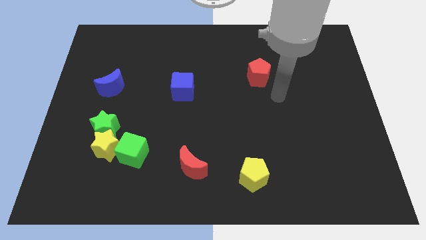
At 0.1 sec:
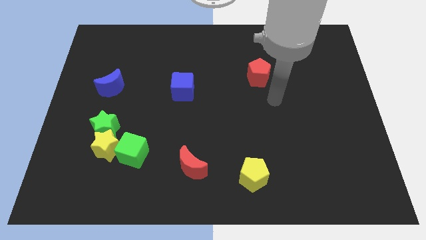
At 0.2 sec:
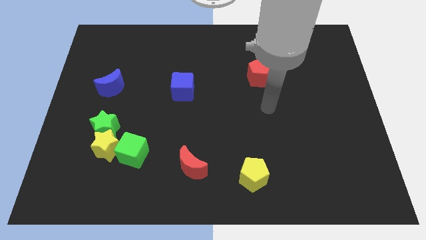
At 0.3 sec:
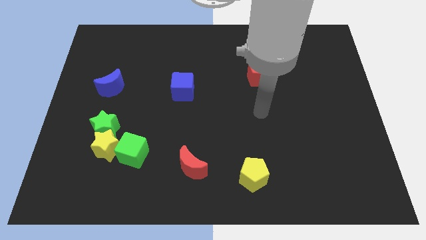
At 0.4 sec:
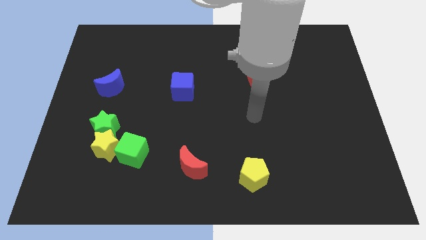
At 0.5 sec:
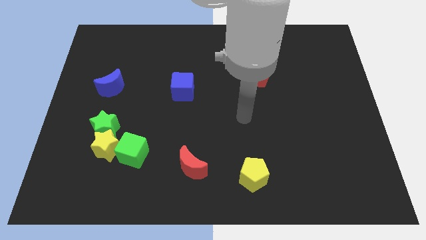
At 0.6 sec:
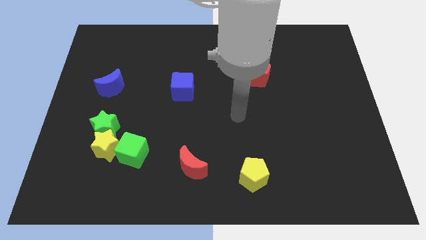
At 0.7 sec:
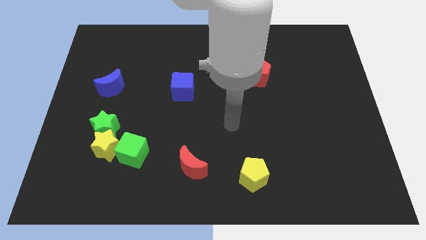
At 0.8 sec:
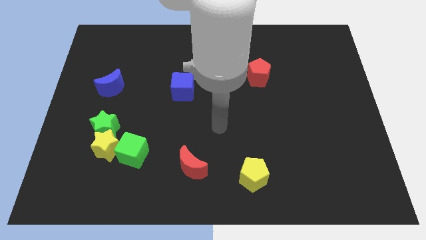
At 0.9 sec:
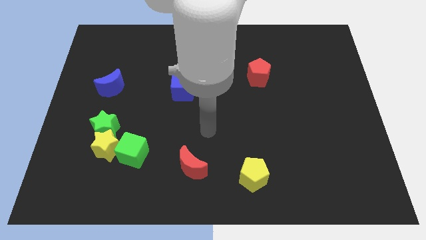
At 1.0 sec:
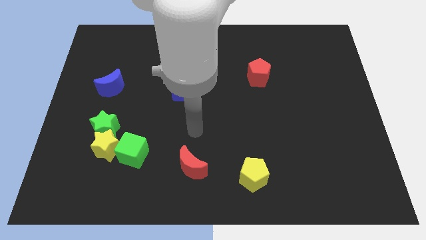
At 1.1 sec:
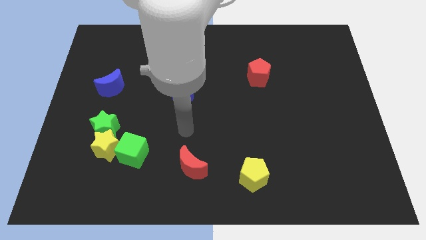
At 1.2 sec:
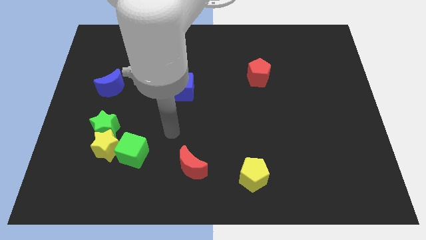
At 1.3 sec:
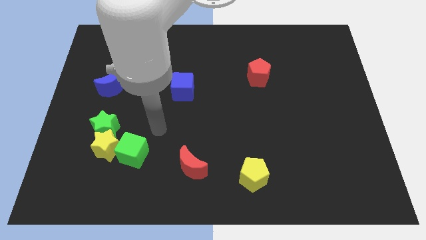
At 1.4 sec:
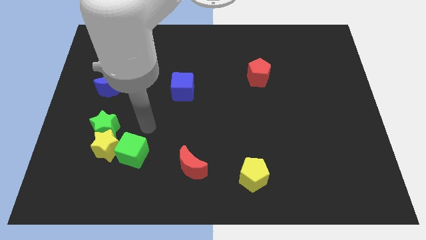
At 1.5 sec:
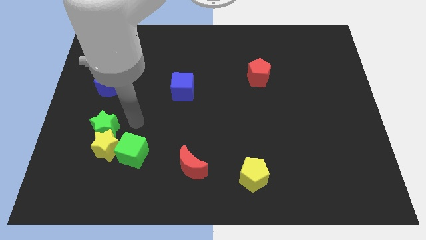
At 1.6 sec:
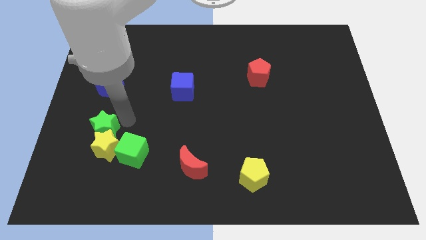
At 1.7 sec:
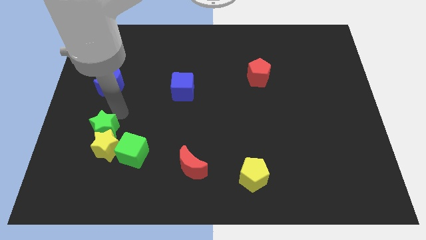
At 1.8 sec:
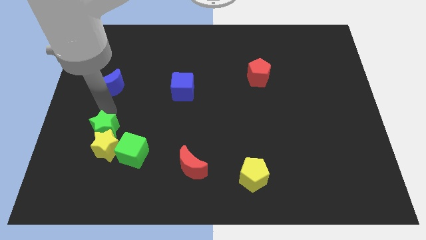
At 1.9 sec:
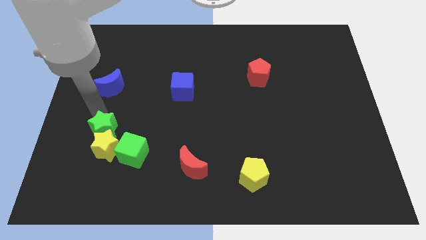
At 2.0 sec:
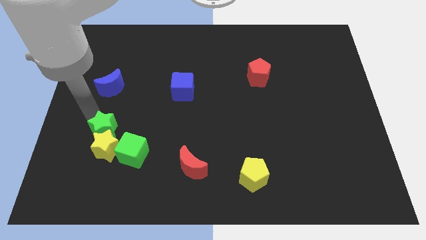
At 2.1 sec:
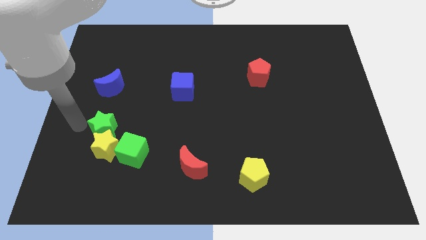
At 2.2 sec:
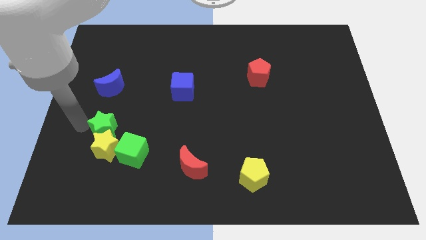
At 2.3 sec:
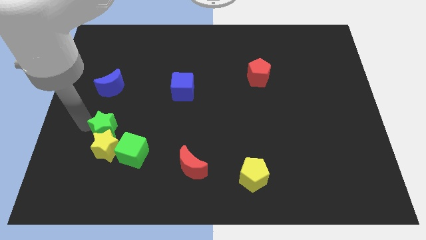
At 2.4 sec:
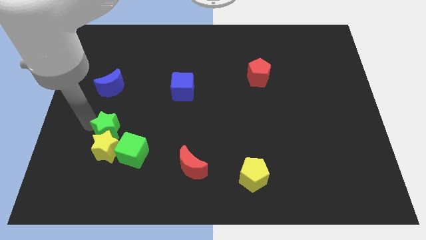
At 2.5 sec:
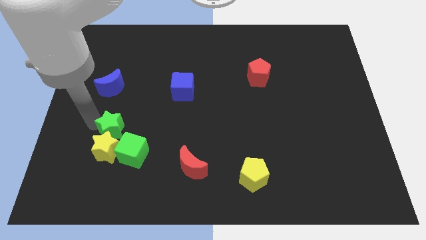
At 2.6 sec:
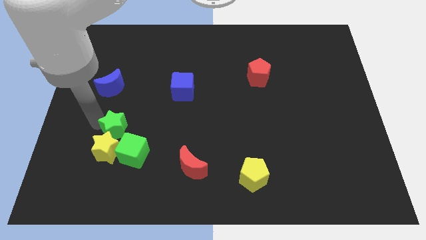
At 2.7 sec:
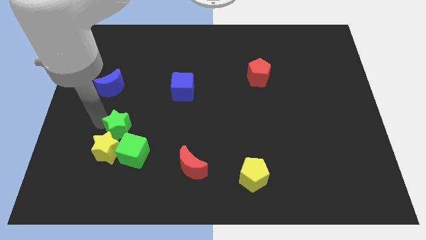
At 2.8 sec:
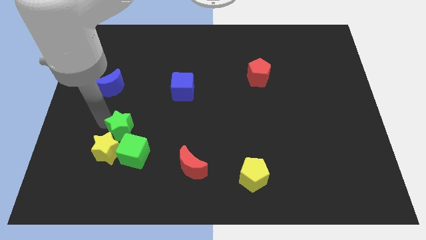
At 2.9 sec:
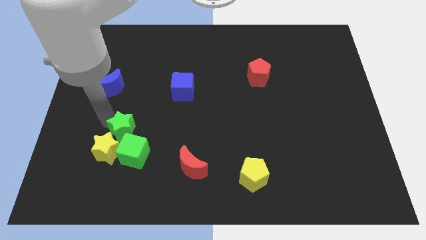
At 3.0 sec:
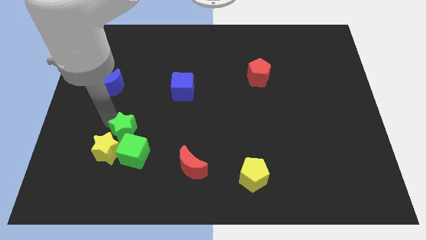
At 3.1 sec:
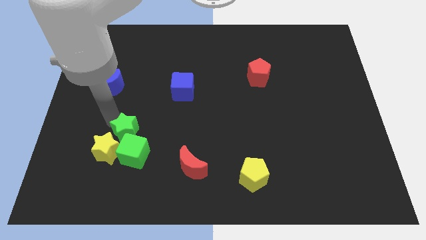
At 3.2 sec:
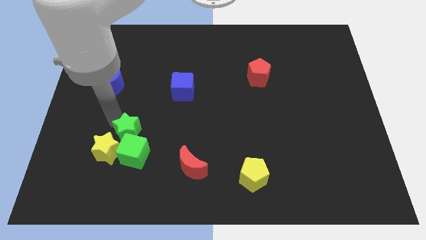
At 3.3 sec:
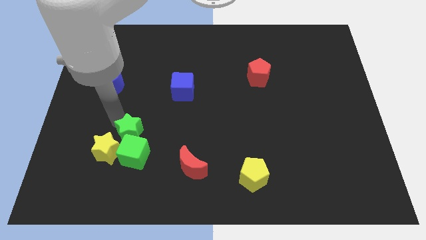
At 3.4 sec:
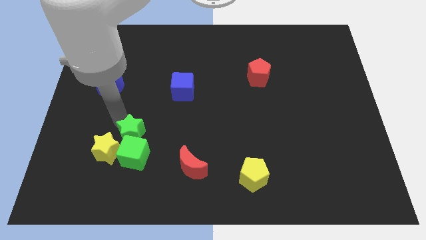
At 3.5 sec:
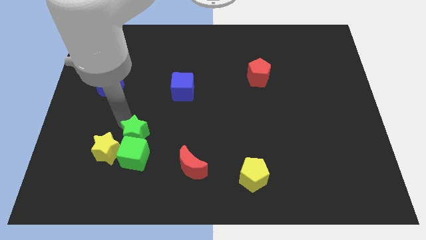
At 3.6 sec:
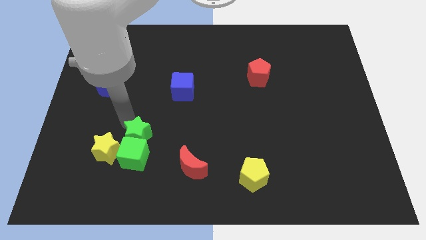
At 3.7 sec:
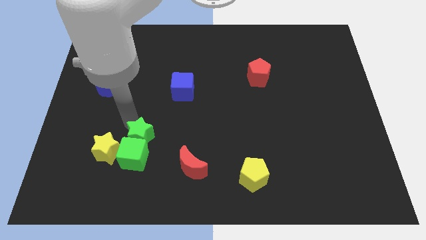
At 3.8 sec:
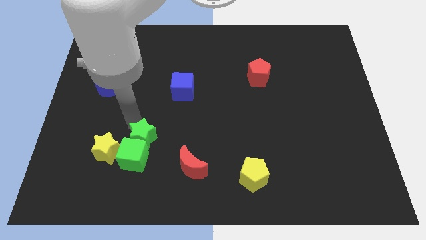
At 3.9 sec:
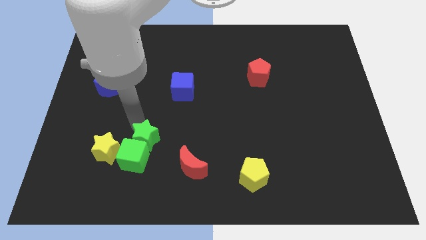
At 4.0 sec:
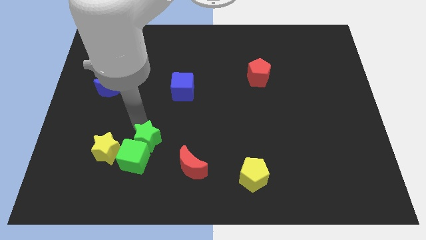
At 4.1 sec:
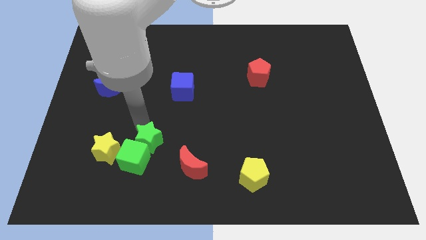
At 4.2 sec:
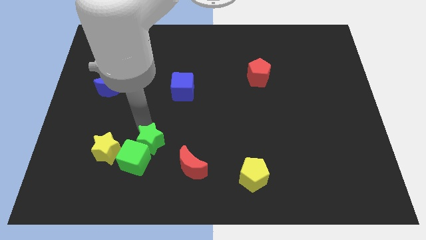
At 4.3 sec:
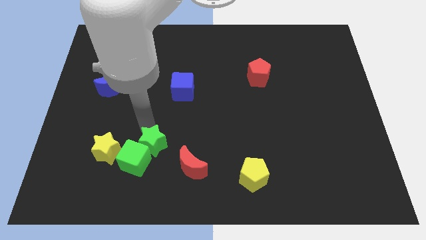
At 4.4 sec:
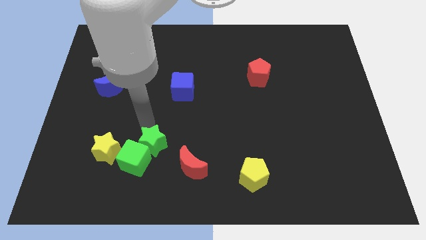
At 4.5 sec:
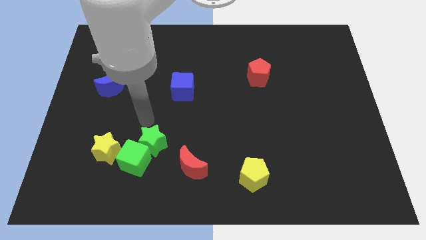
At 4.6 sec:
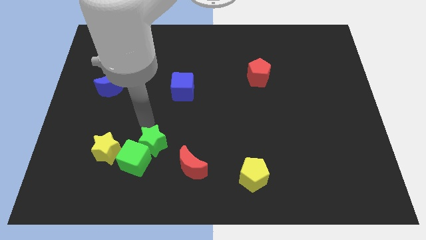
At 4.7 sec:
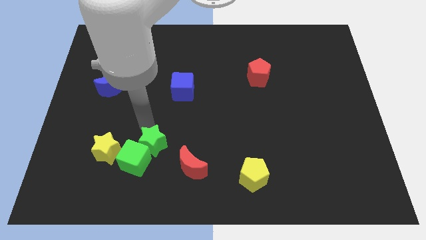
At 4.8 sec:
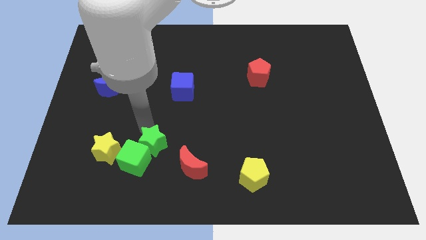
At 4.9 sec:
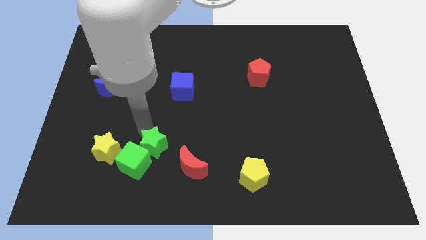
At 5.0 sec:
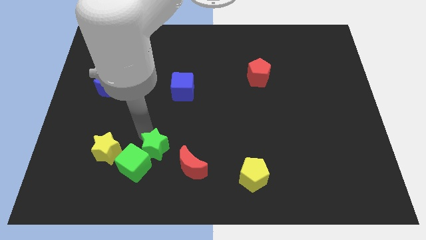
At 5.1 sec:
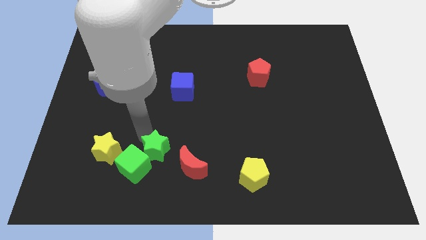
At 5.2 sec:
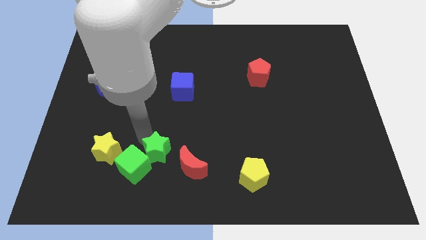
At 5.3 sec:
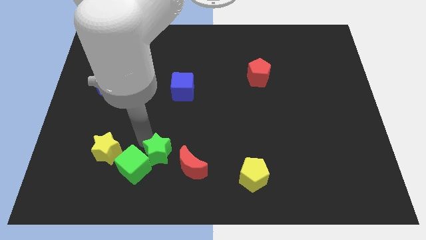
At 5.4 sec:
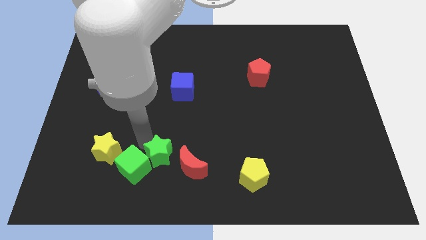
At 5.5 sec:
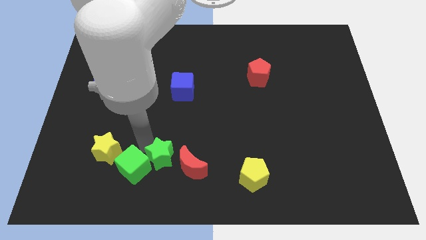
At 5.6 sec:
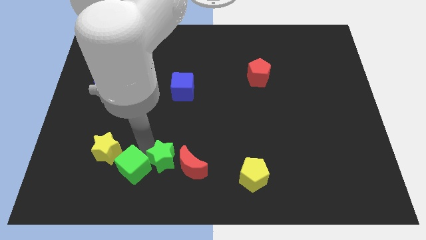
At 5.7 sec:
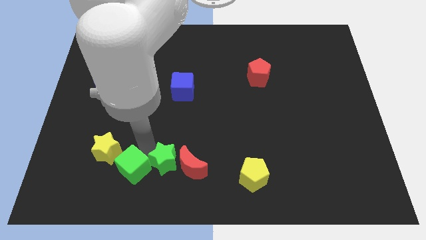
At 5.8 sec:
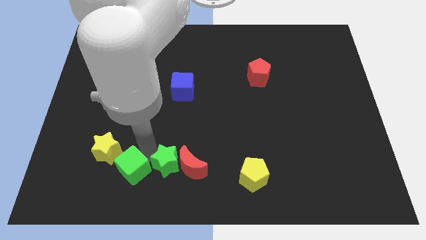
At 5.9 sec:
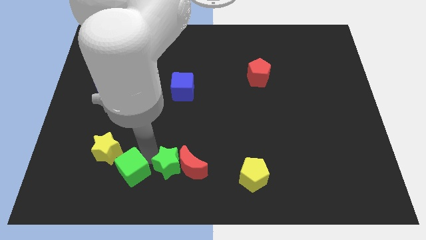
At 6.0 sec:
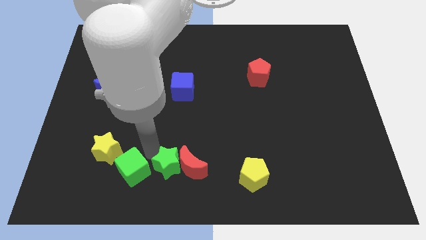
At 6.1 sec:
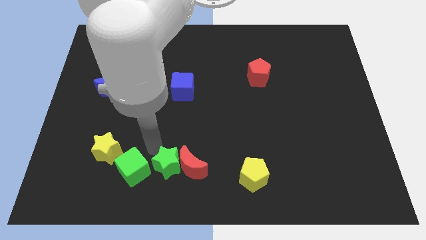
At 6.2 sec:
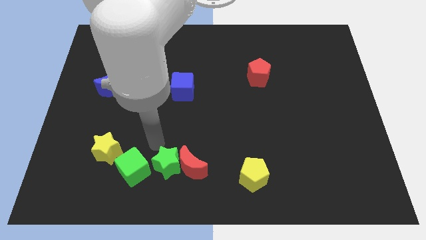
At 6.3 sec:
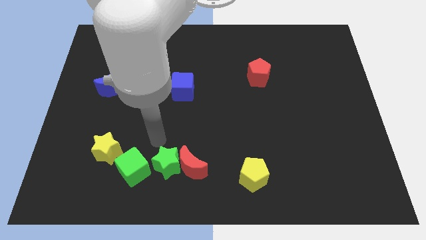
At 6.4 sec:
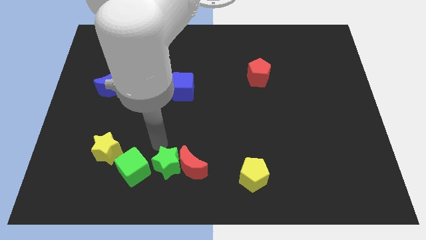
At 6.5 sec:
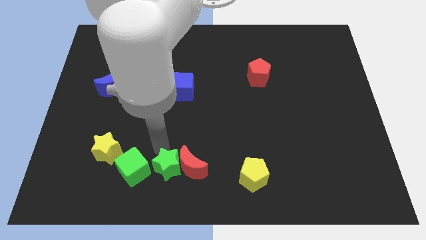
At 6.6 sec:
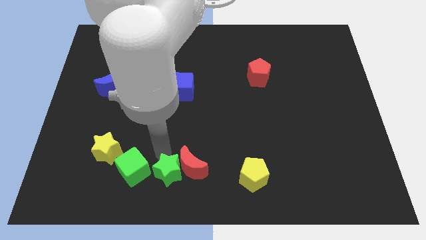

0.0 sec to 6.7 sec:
move the green star to the bottom side
